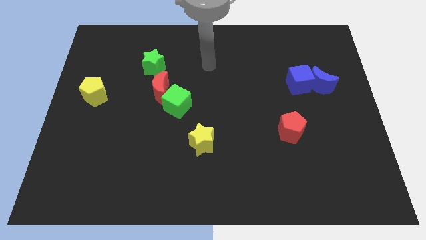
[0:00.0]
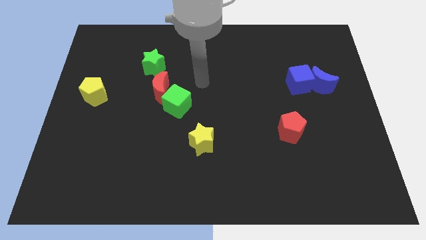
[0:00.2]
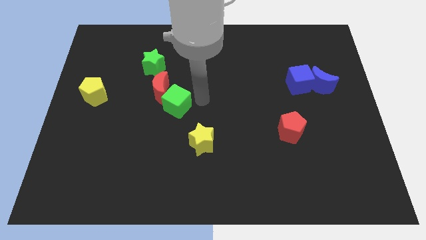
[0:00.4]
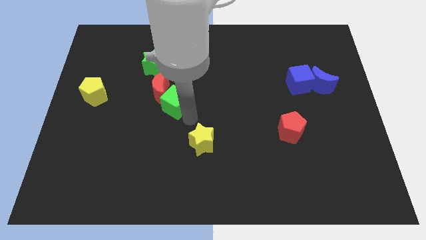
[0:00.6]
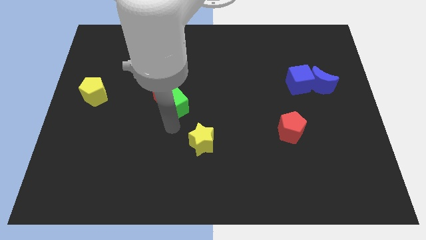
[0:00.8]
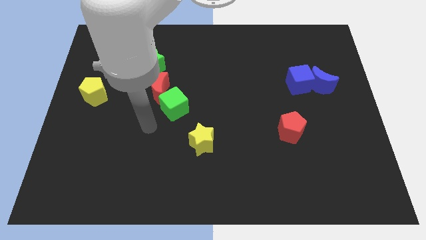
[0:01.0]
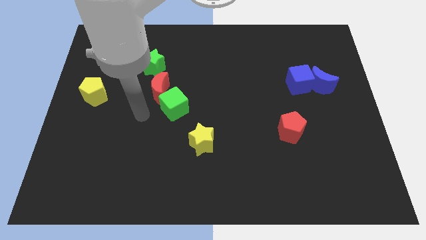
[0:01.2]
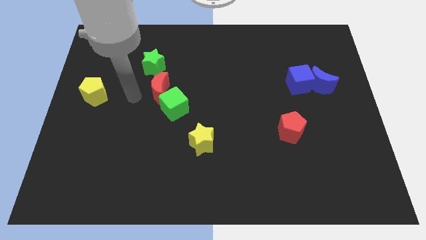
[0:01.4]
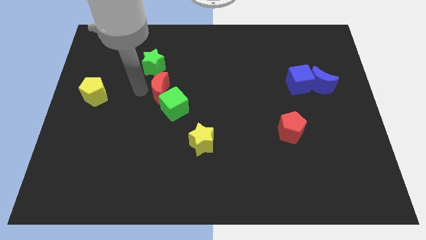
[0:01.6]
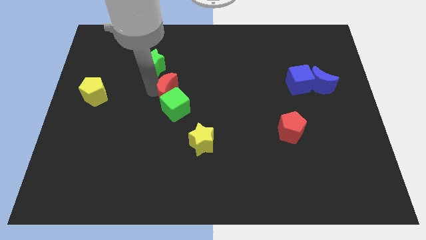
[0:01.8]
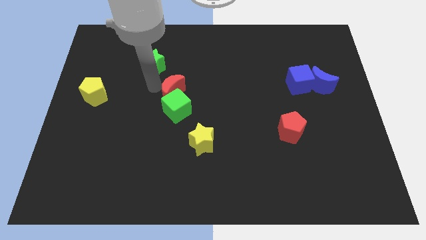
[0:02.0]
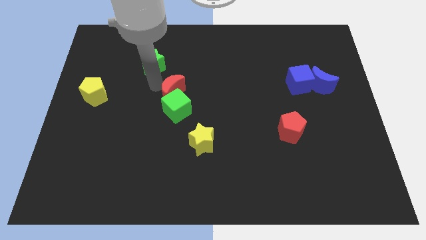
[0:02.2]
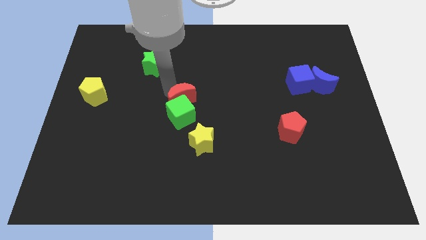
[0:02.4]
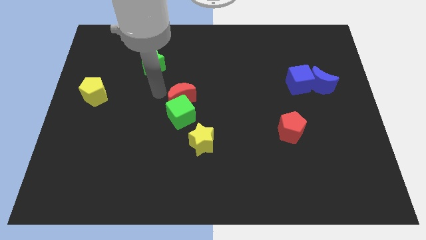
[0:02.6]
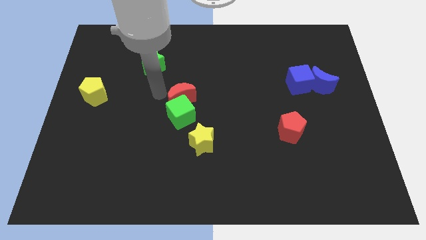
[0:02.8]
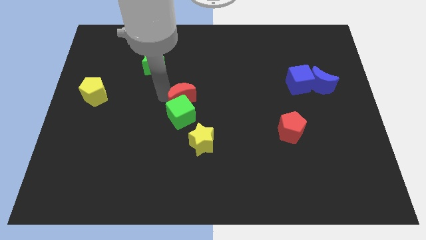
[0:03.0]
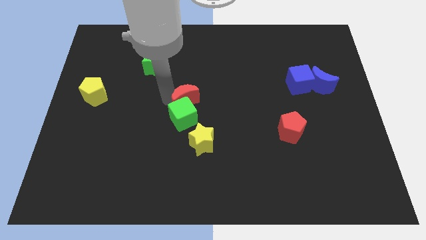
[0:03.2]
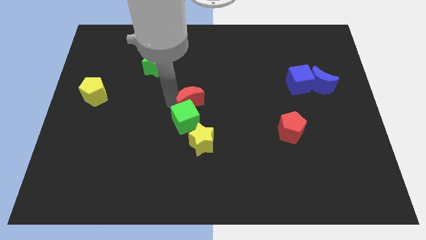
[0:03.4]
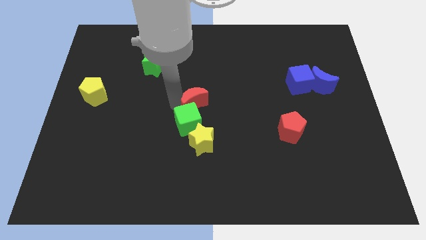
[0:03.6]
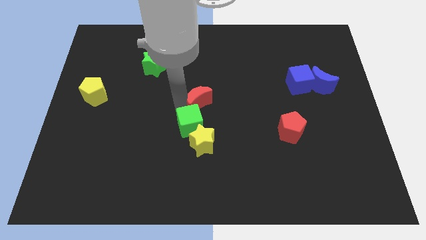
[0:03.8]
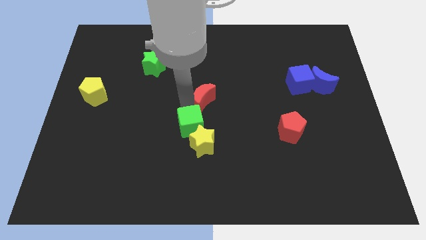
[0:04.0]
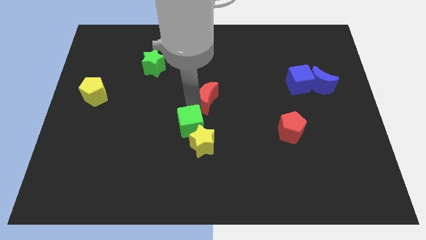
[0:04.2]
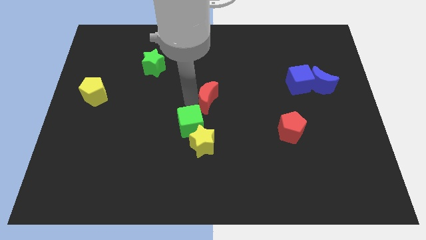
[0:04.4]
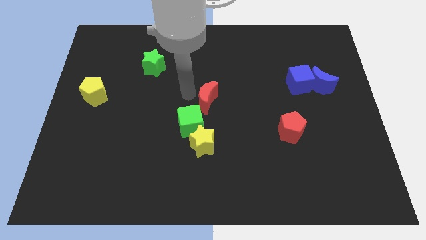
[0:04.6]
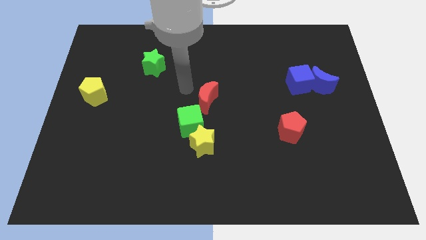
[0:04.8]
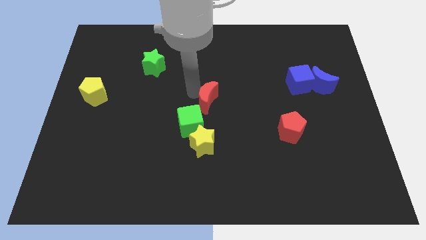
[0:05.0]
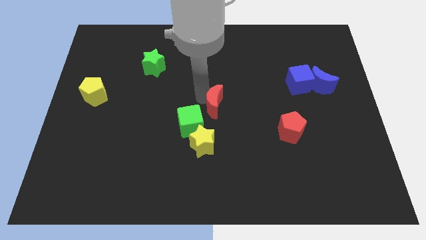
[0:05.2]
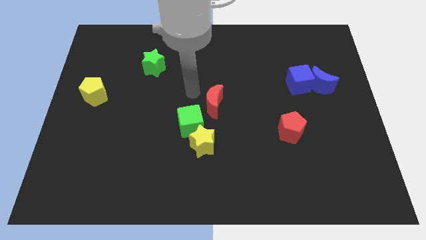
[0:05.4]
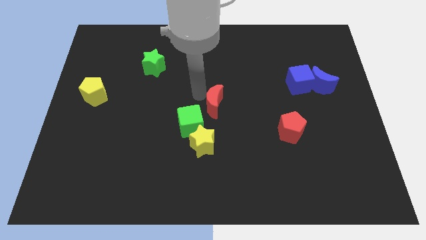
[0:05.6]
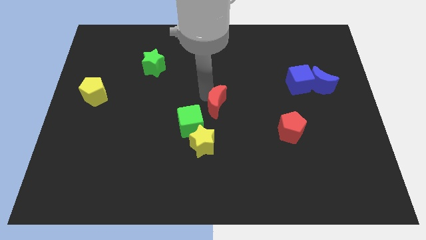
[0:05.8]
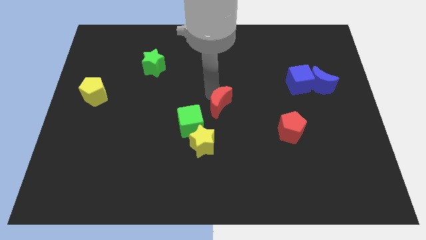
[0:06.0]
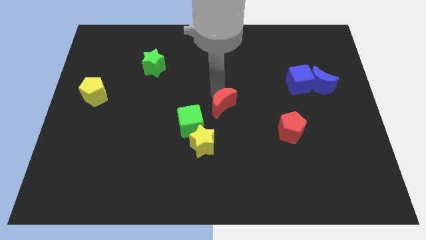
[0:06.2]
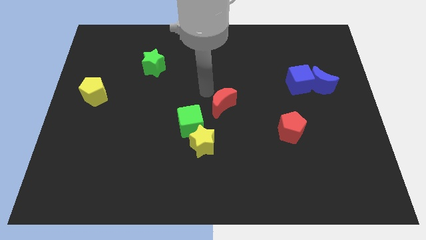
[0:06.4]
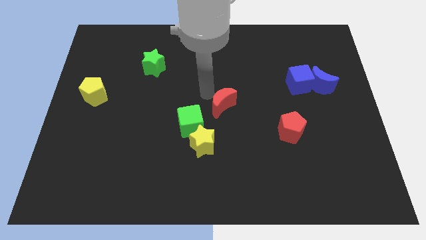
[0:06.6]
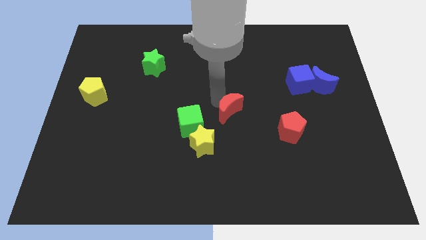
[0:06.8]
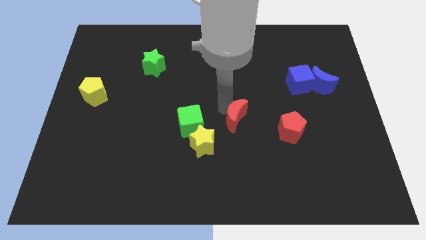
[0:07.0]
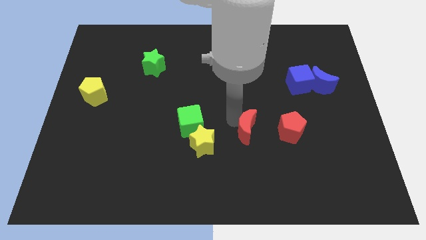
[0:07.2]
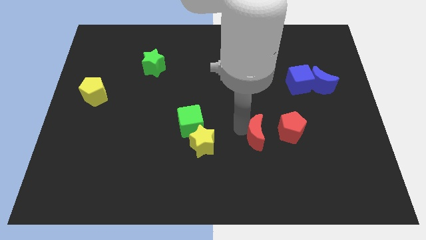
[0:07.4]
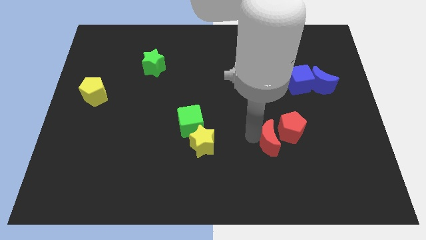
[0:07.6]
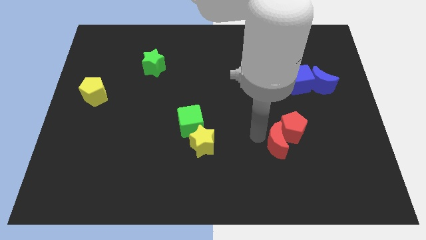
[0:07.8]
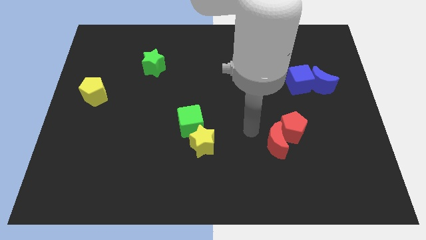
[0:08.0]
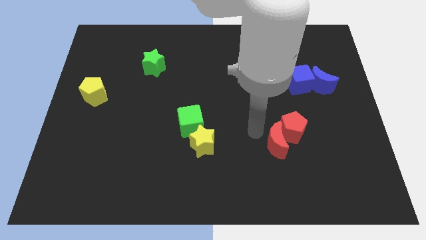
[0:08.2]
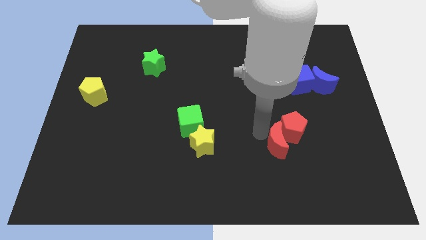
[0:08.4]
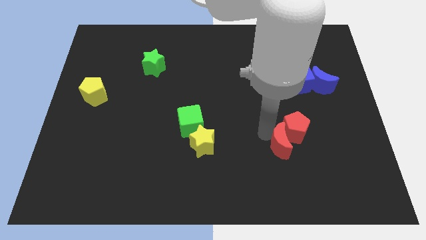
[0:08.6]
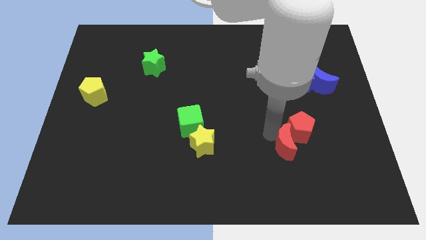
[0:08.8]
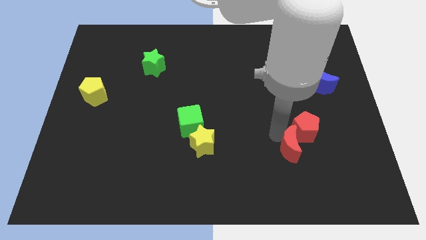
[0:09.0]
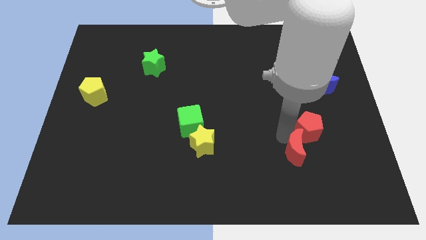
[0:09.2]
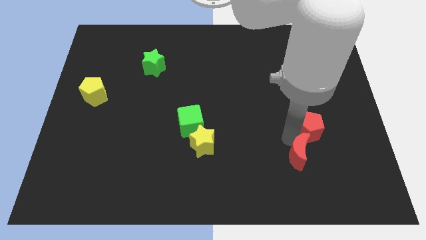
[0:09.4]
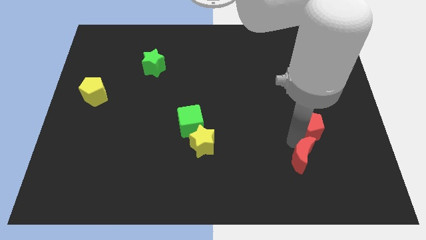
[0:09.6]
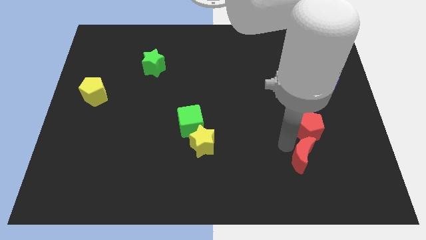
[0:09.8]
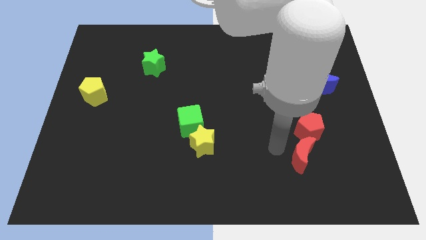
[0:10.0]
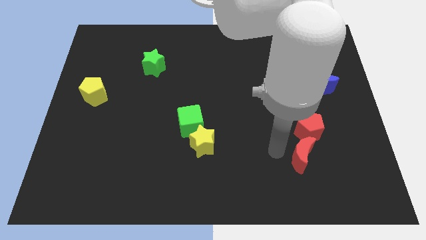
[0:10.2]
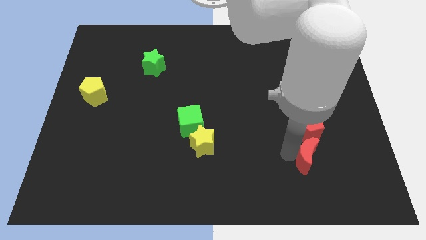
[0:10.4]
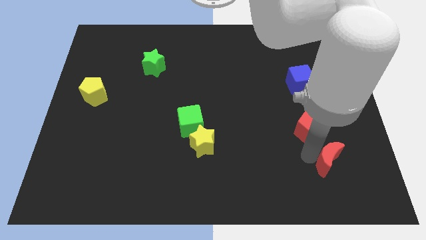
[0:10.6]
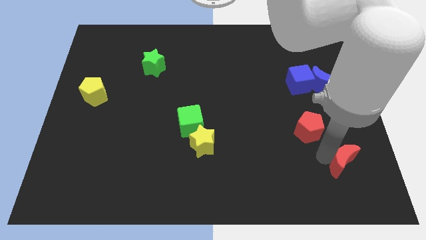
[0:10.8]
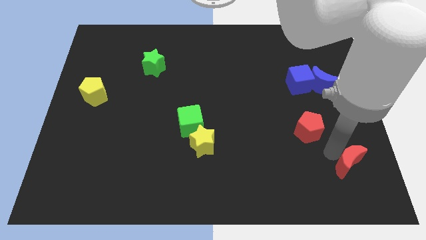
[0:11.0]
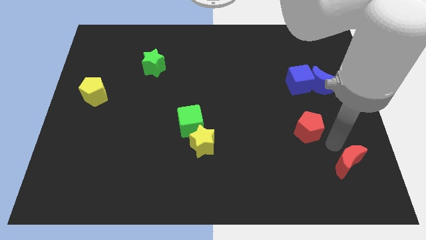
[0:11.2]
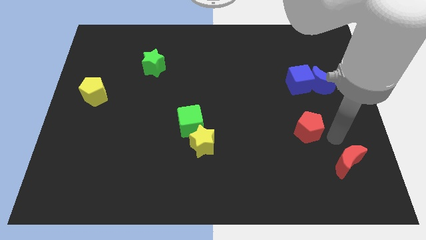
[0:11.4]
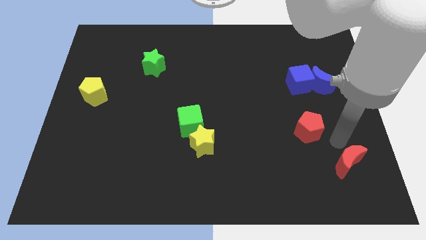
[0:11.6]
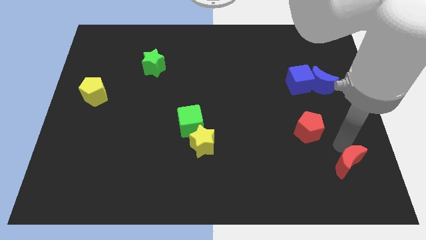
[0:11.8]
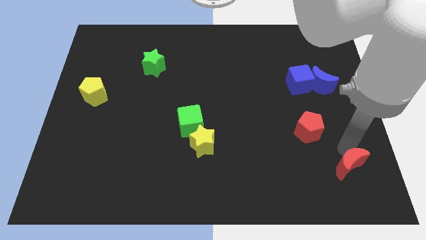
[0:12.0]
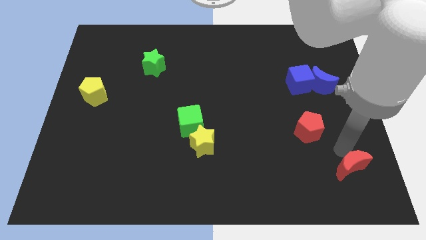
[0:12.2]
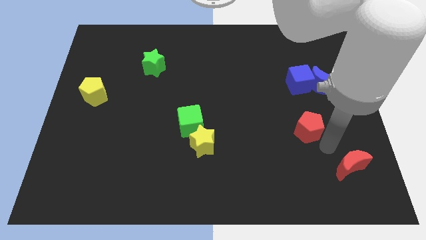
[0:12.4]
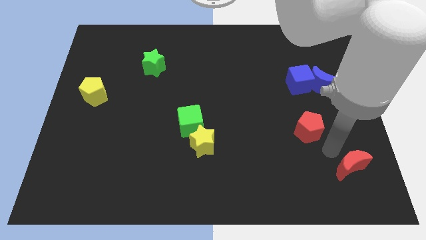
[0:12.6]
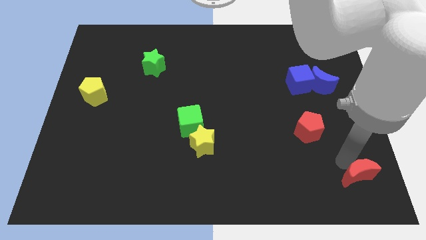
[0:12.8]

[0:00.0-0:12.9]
slide the red moon to the lower right corner
